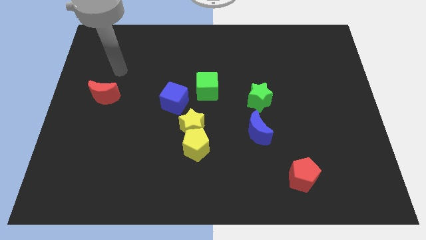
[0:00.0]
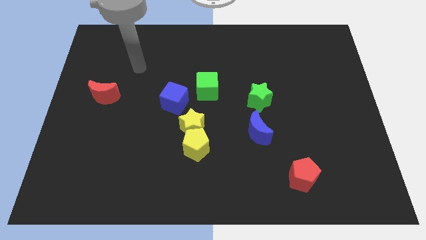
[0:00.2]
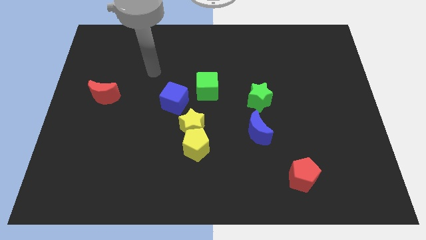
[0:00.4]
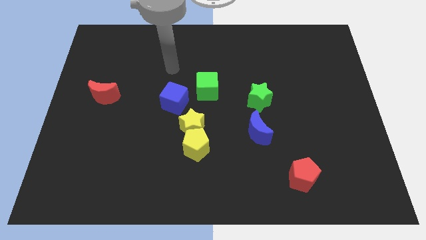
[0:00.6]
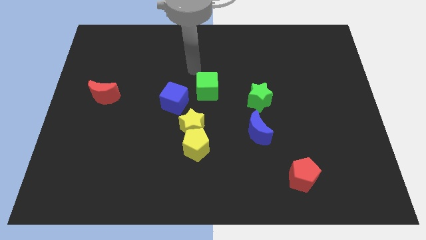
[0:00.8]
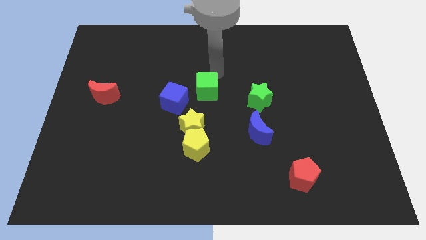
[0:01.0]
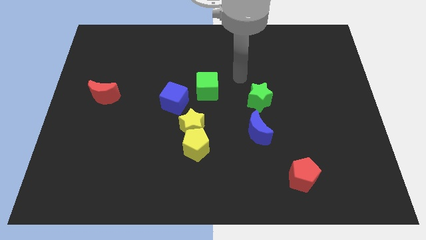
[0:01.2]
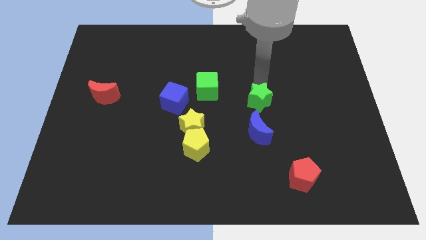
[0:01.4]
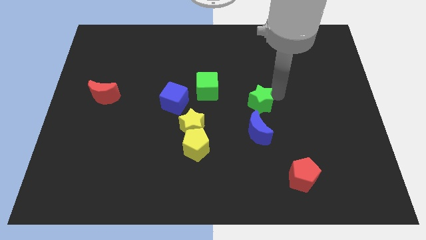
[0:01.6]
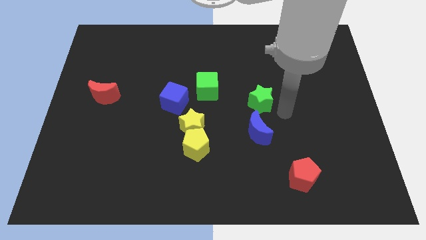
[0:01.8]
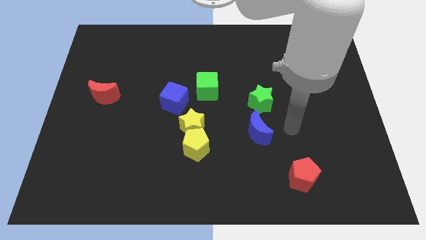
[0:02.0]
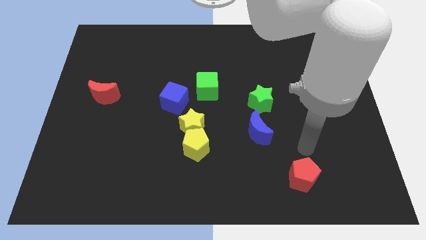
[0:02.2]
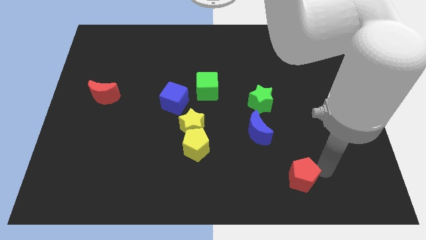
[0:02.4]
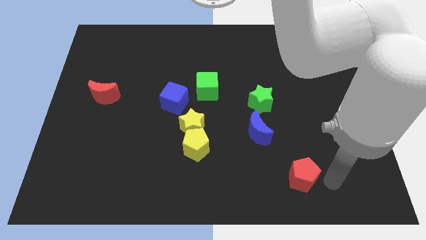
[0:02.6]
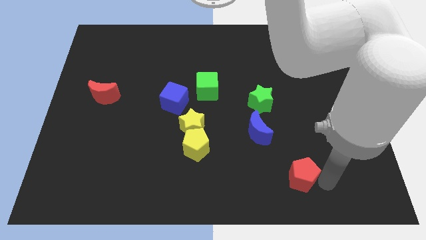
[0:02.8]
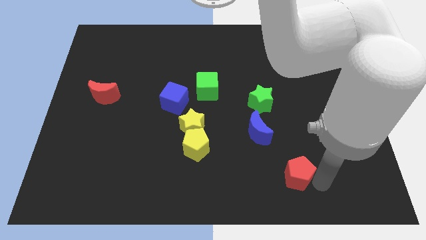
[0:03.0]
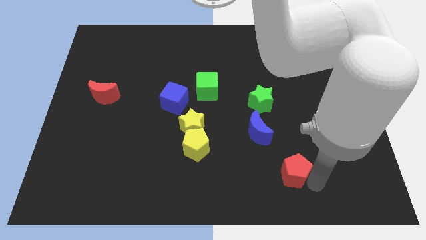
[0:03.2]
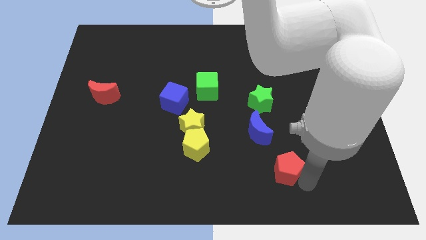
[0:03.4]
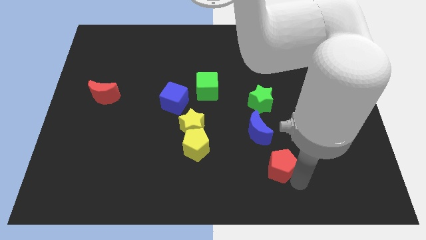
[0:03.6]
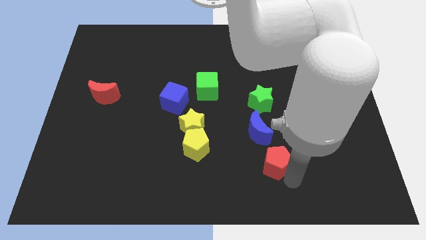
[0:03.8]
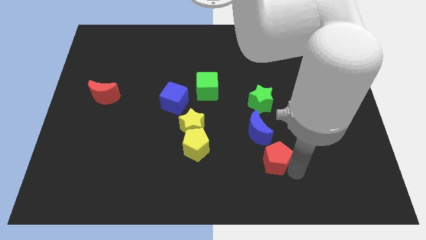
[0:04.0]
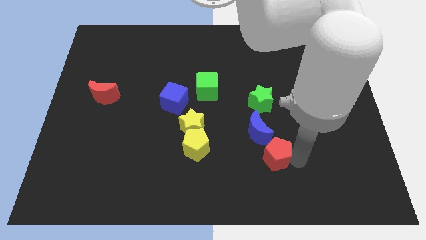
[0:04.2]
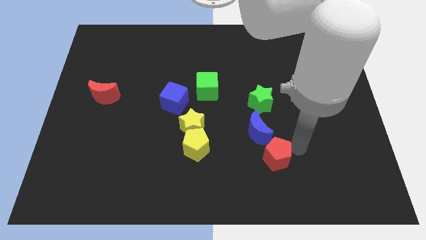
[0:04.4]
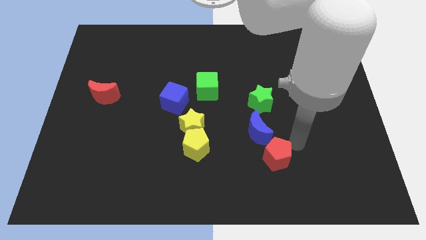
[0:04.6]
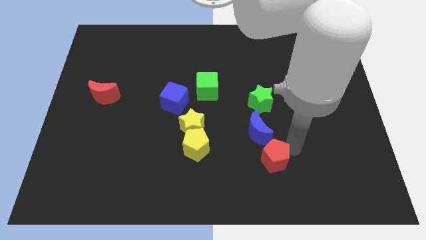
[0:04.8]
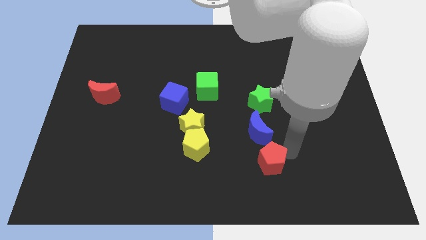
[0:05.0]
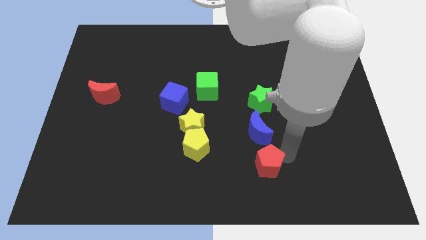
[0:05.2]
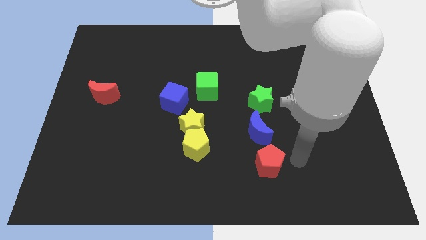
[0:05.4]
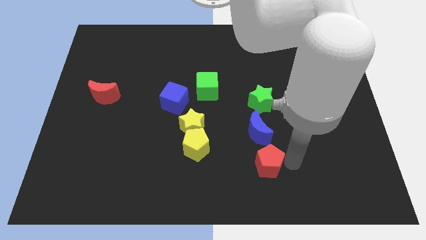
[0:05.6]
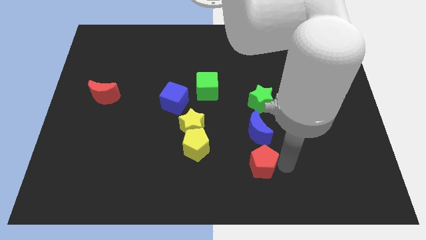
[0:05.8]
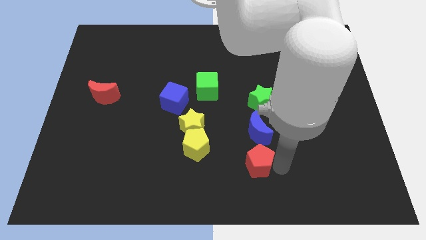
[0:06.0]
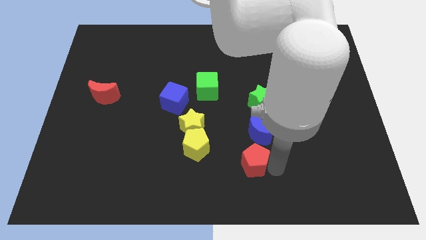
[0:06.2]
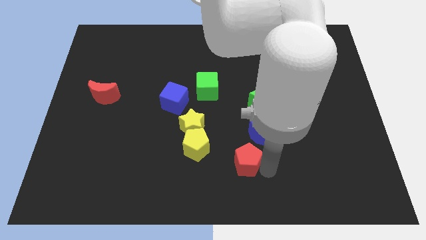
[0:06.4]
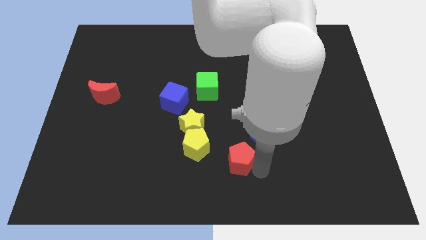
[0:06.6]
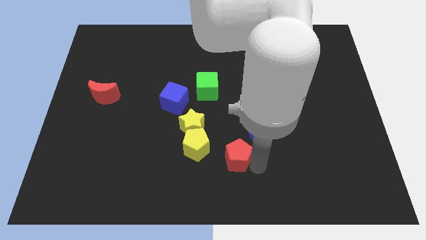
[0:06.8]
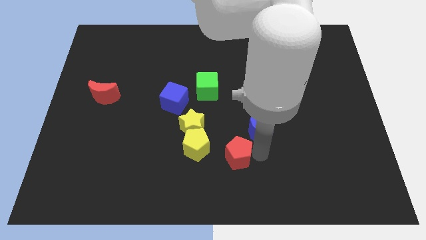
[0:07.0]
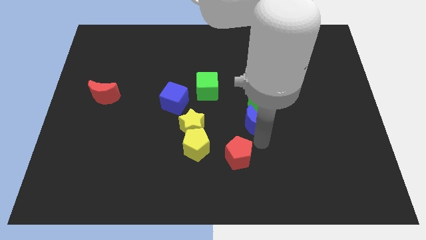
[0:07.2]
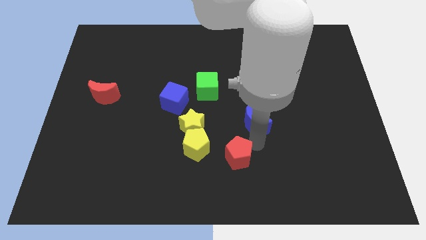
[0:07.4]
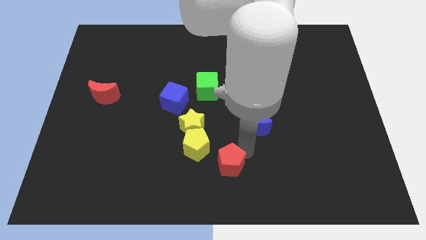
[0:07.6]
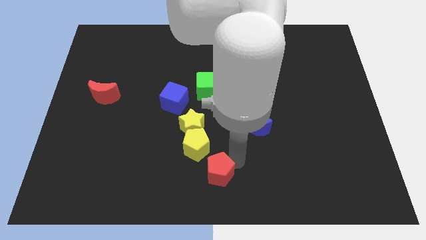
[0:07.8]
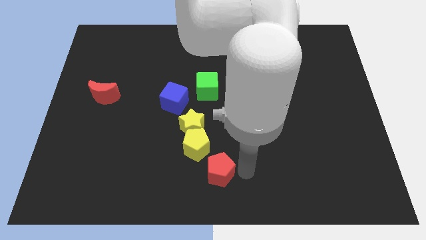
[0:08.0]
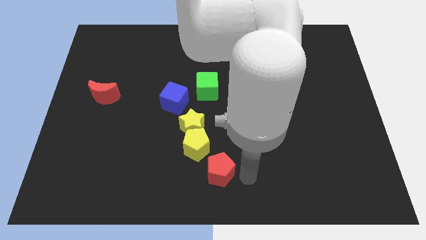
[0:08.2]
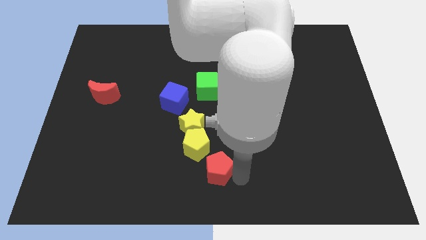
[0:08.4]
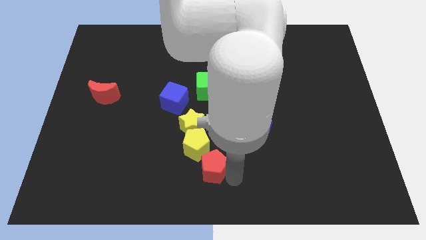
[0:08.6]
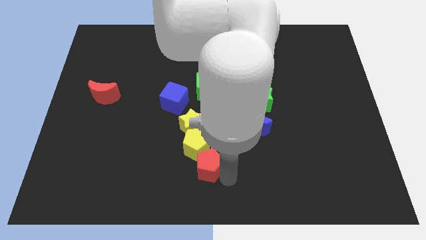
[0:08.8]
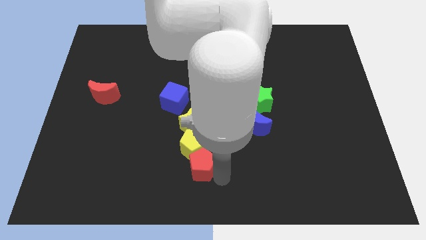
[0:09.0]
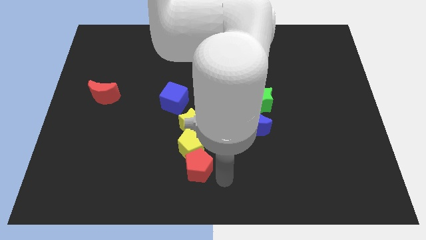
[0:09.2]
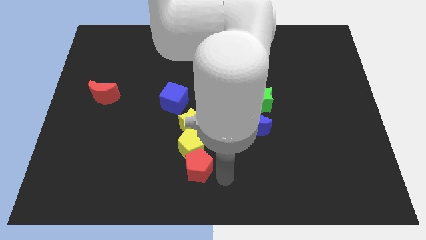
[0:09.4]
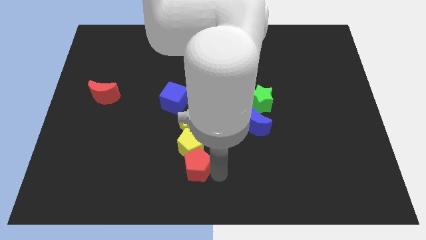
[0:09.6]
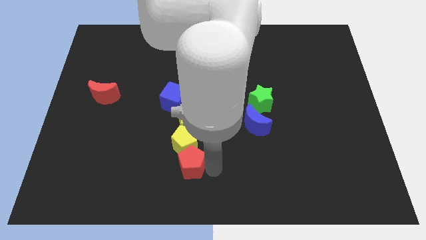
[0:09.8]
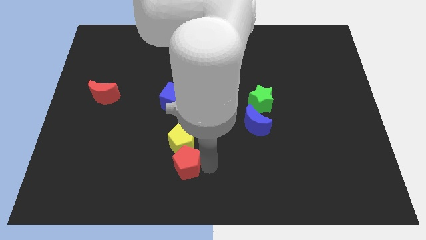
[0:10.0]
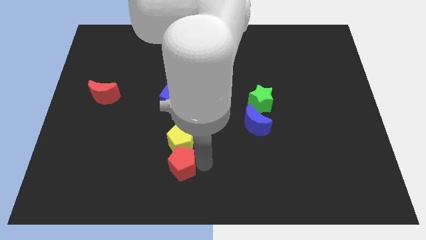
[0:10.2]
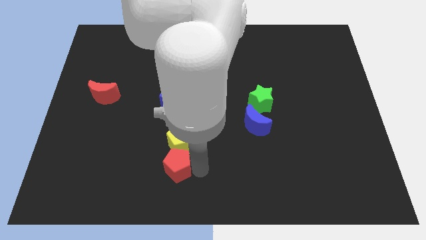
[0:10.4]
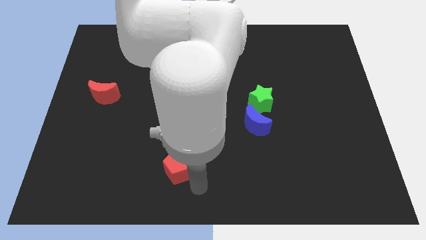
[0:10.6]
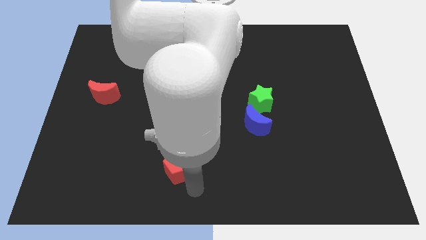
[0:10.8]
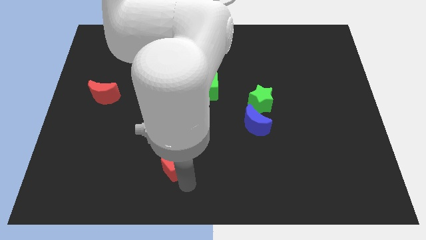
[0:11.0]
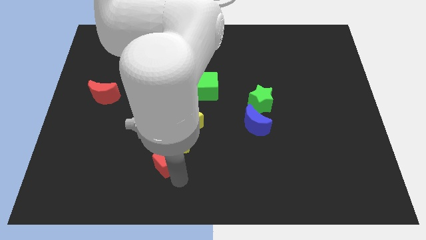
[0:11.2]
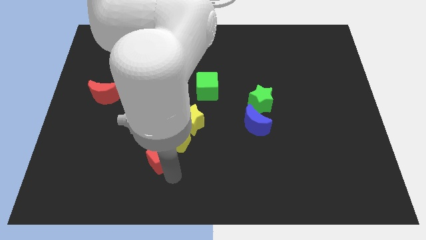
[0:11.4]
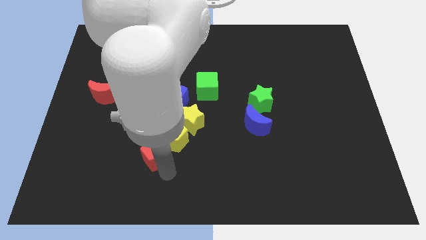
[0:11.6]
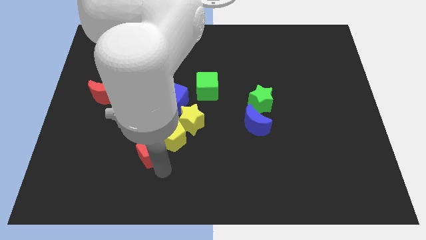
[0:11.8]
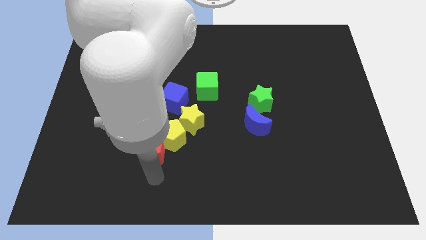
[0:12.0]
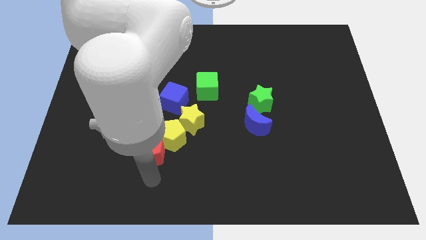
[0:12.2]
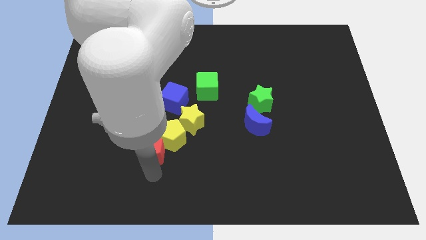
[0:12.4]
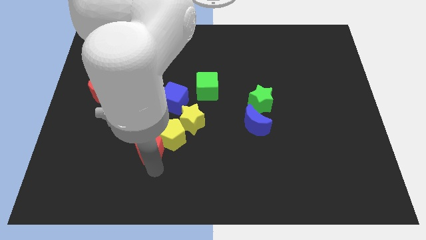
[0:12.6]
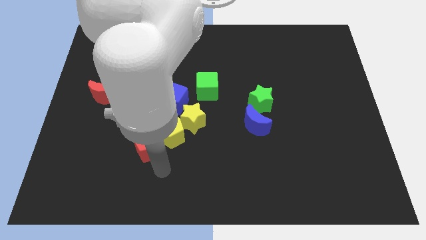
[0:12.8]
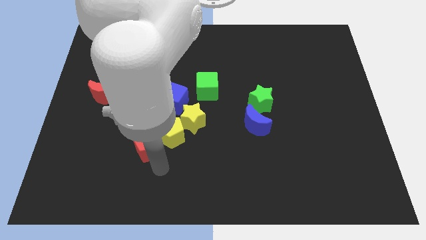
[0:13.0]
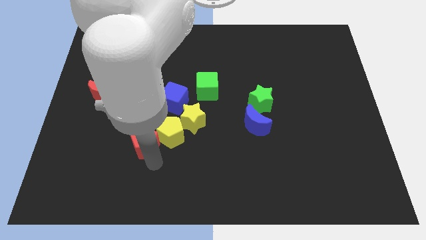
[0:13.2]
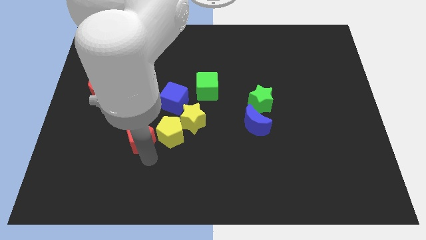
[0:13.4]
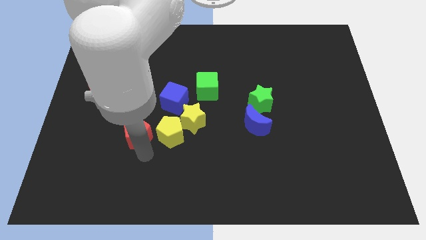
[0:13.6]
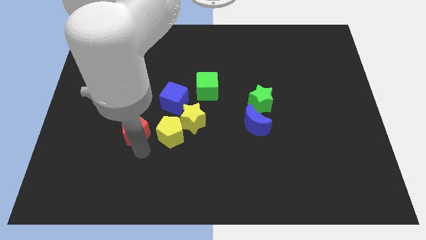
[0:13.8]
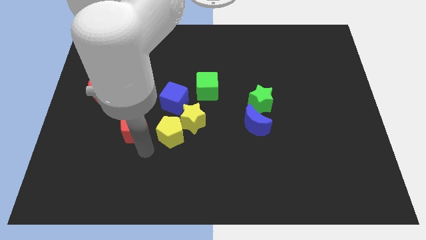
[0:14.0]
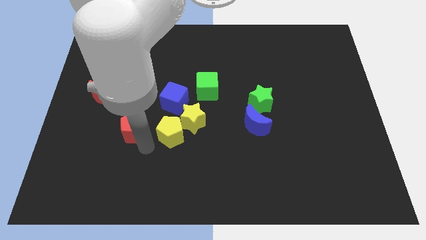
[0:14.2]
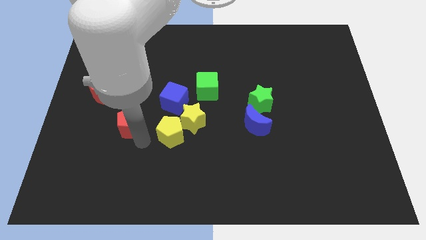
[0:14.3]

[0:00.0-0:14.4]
move the red pentagon diagonally down and to the right of the red moon

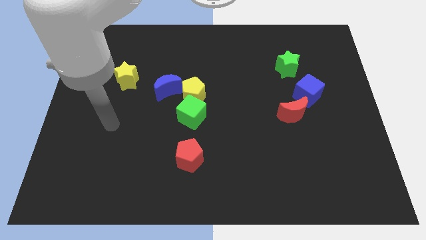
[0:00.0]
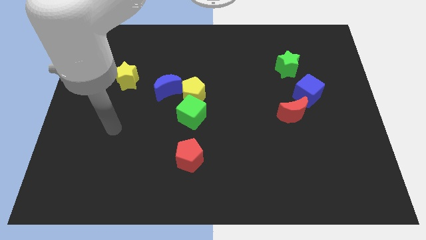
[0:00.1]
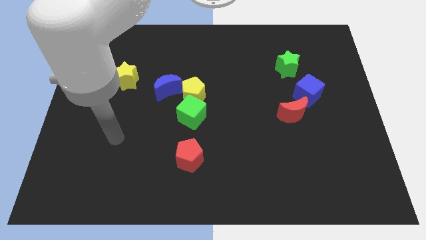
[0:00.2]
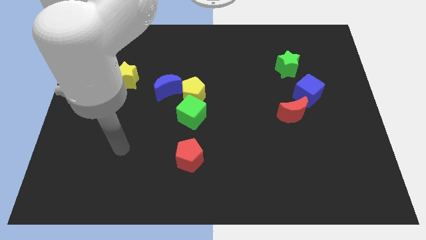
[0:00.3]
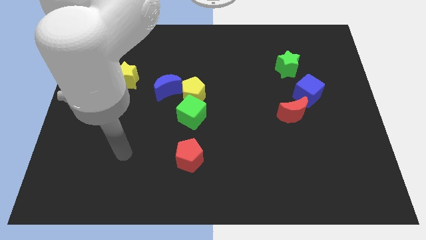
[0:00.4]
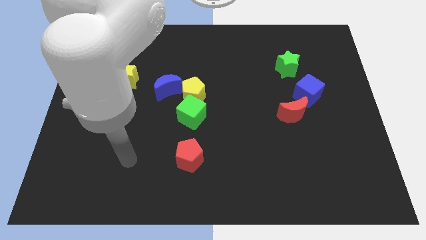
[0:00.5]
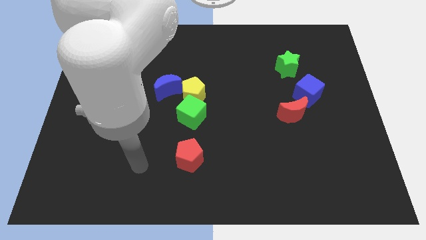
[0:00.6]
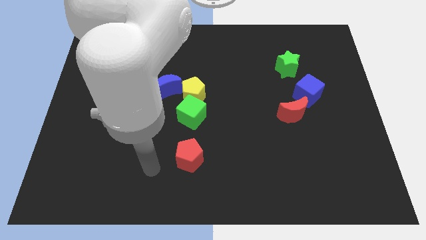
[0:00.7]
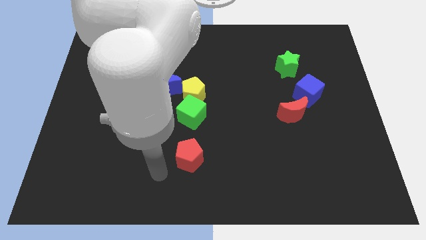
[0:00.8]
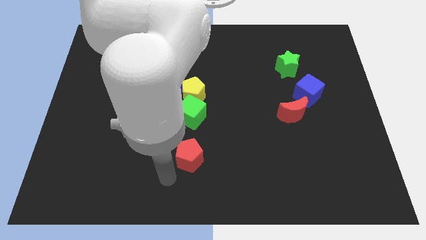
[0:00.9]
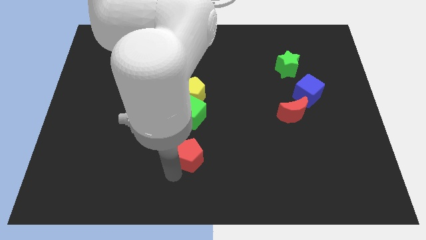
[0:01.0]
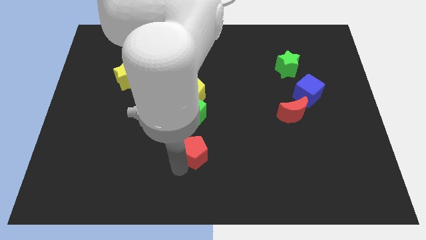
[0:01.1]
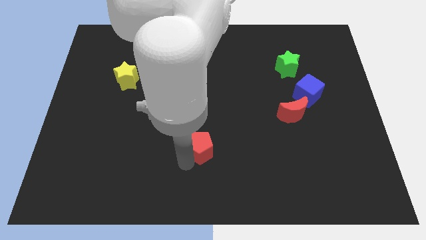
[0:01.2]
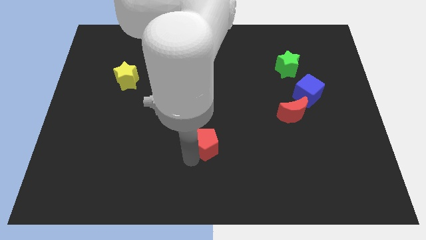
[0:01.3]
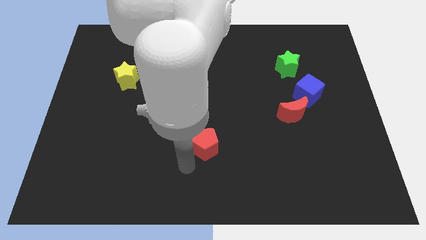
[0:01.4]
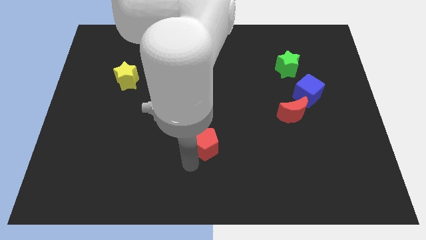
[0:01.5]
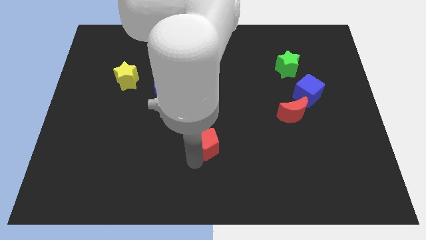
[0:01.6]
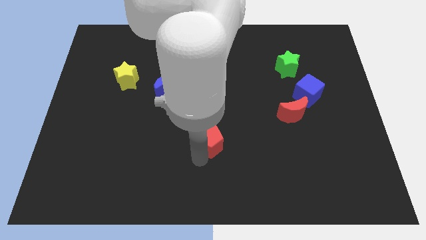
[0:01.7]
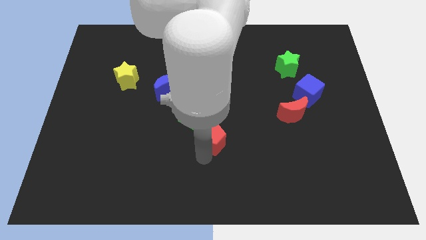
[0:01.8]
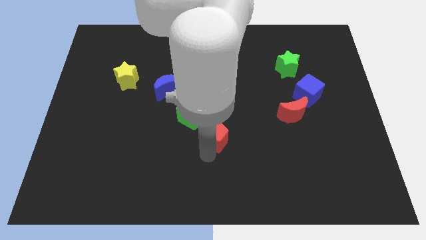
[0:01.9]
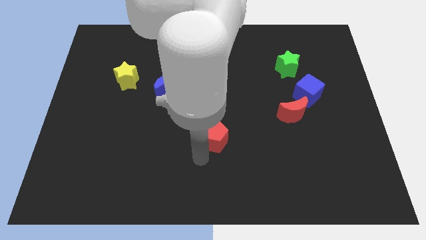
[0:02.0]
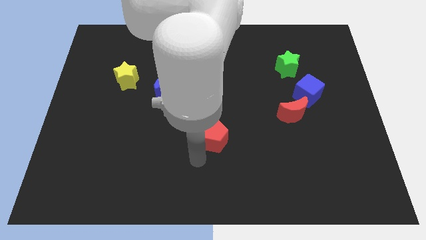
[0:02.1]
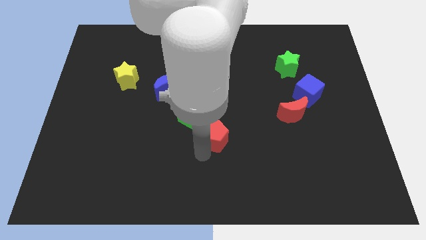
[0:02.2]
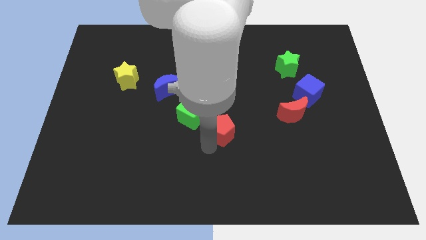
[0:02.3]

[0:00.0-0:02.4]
put the red pentagon to the right of the green cube
